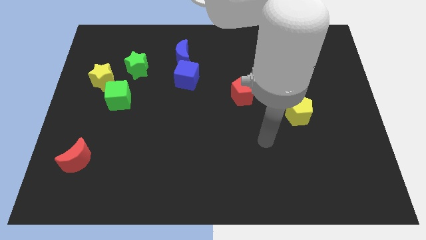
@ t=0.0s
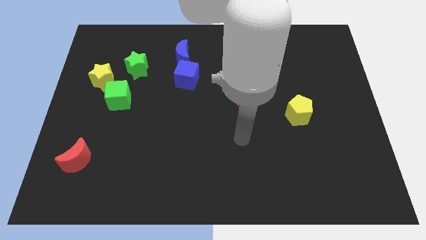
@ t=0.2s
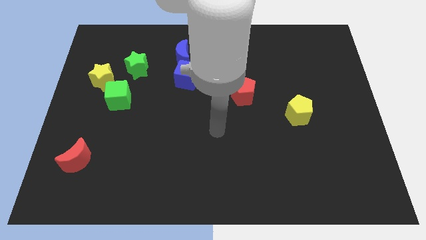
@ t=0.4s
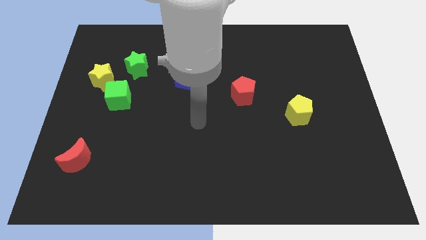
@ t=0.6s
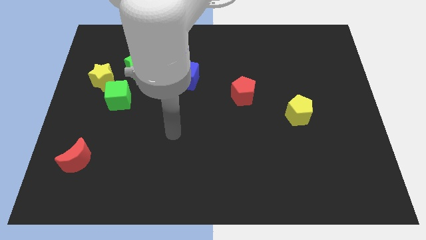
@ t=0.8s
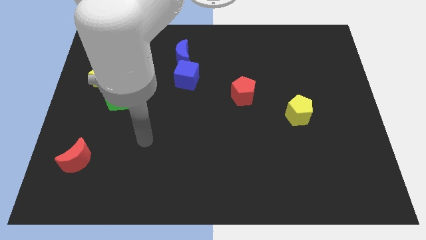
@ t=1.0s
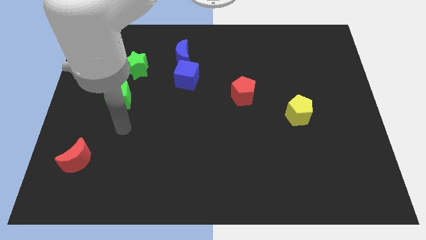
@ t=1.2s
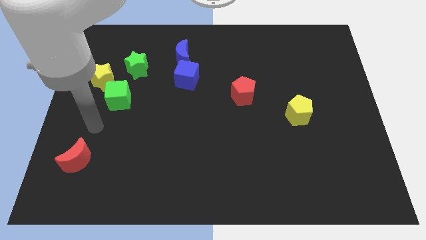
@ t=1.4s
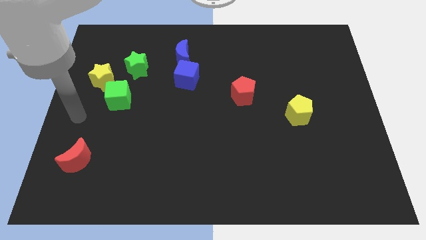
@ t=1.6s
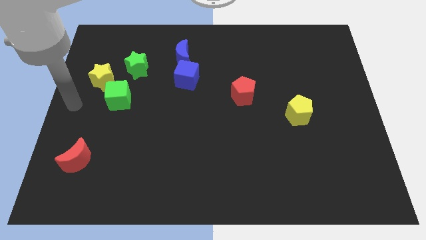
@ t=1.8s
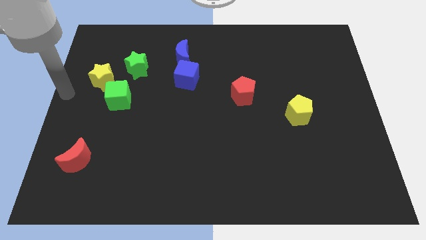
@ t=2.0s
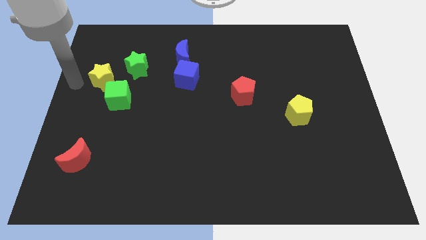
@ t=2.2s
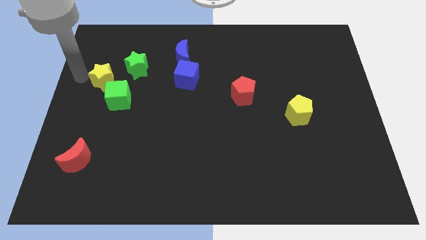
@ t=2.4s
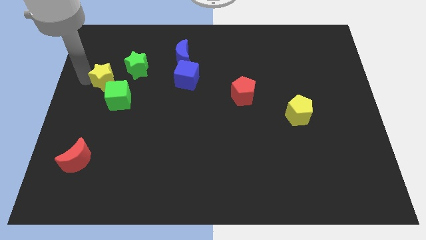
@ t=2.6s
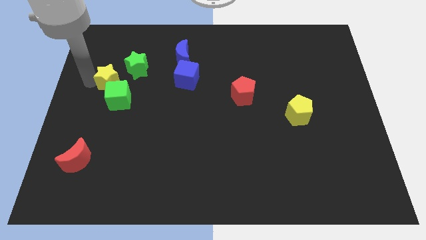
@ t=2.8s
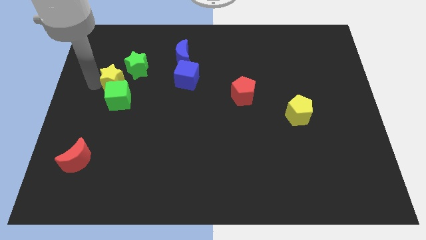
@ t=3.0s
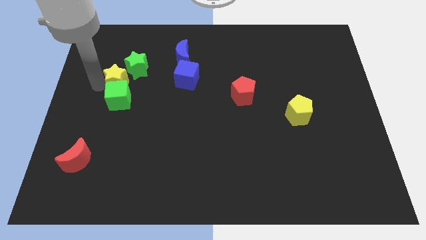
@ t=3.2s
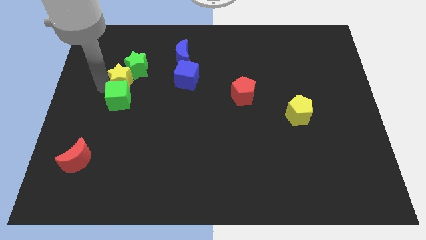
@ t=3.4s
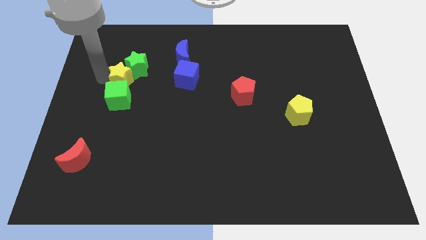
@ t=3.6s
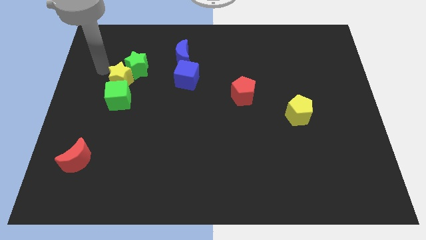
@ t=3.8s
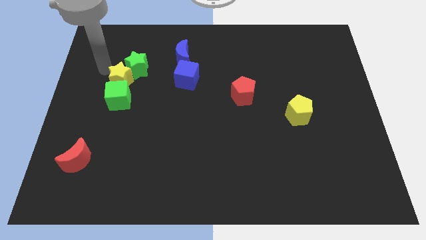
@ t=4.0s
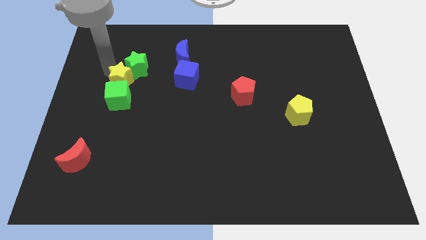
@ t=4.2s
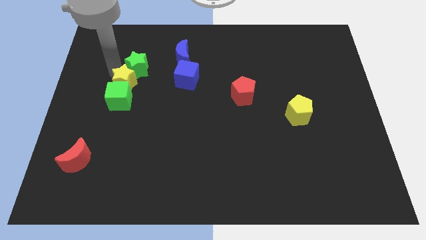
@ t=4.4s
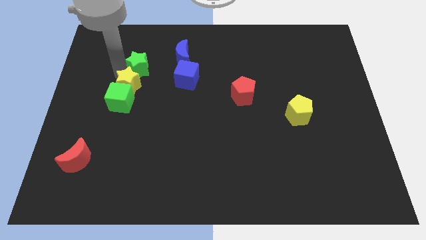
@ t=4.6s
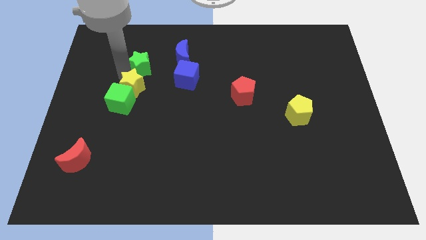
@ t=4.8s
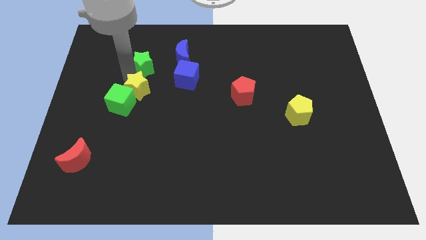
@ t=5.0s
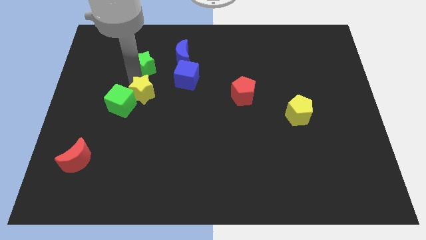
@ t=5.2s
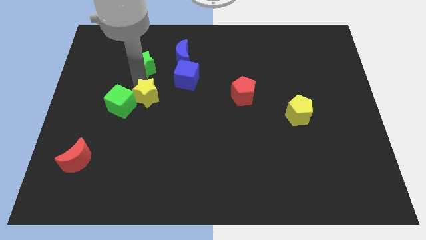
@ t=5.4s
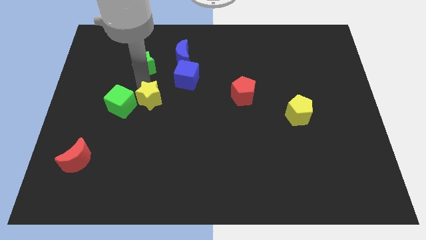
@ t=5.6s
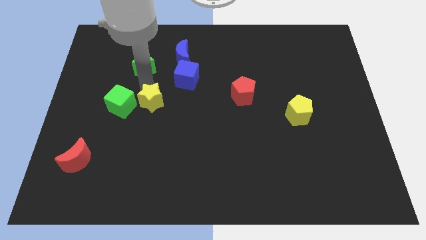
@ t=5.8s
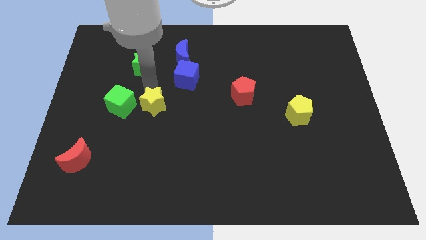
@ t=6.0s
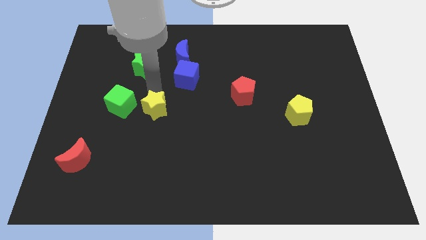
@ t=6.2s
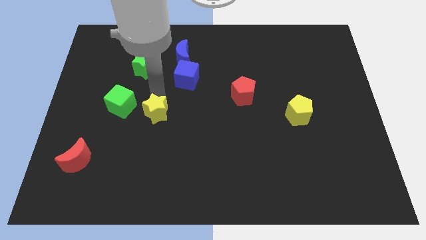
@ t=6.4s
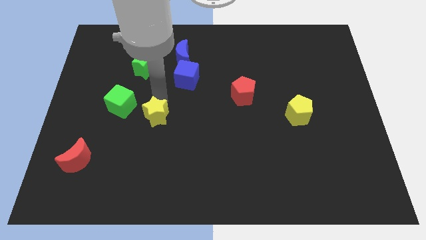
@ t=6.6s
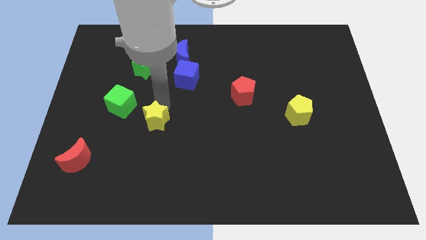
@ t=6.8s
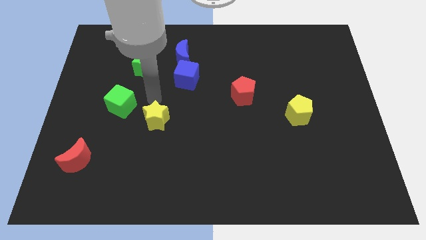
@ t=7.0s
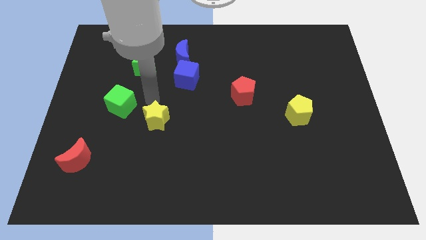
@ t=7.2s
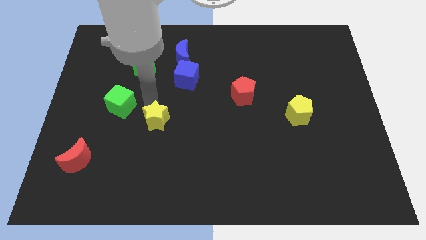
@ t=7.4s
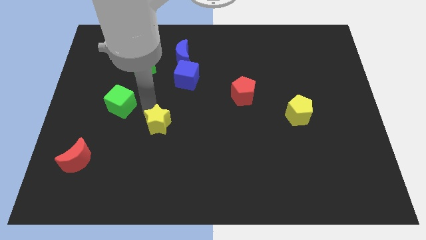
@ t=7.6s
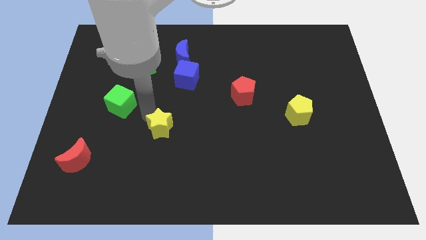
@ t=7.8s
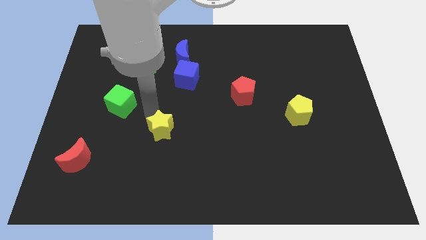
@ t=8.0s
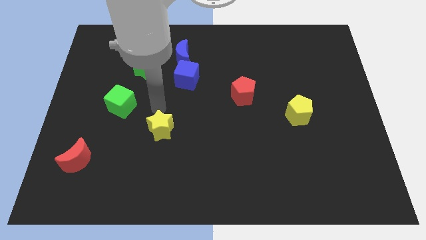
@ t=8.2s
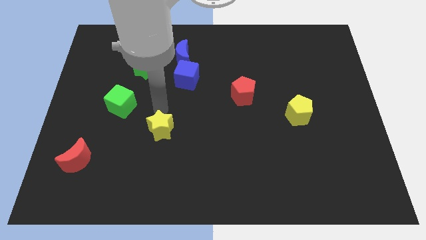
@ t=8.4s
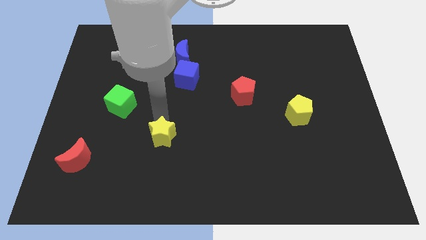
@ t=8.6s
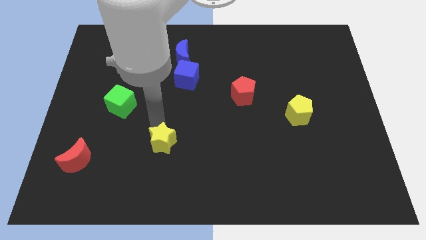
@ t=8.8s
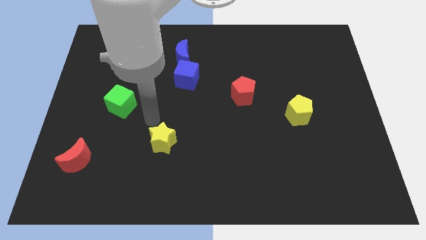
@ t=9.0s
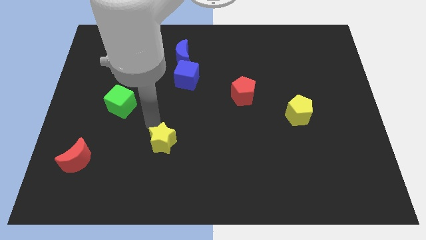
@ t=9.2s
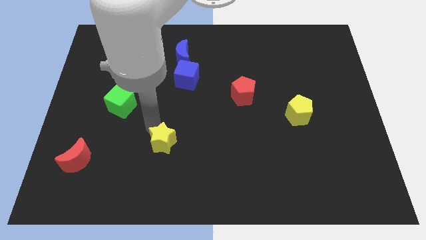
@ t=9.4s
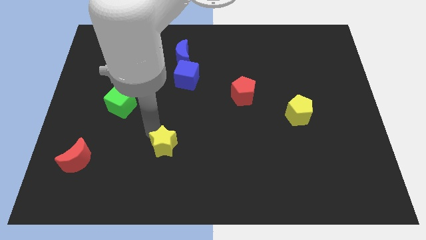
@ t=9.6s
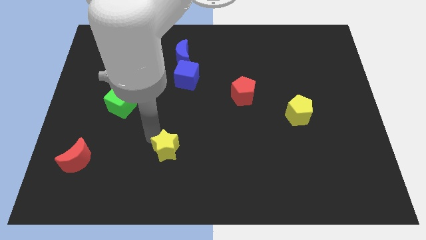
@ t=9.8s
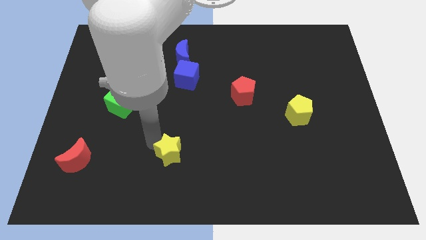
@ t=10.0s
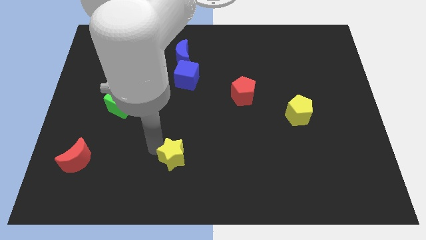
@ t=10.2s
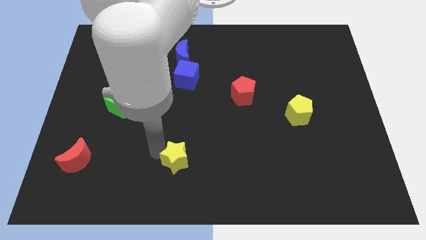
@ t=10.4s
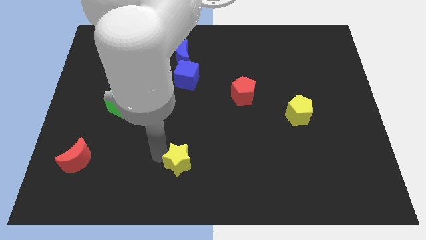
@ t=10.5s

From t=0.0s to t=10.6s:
put the yellow star to the bottom side

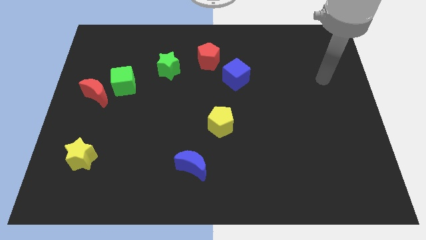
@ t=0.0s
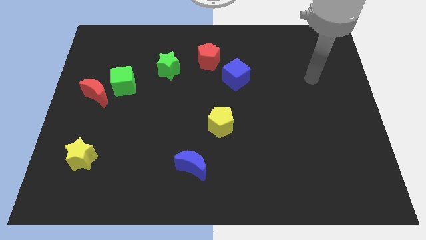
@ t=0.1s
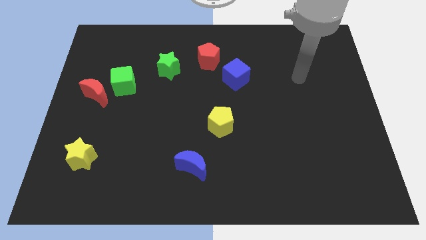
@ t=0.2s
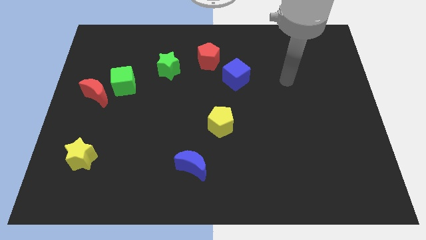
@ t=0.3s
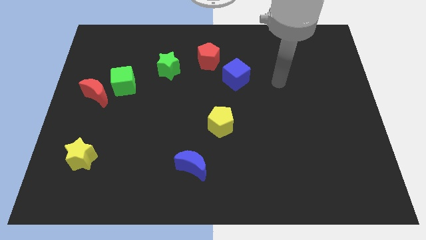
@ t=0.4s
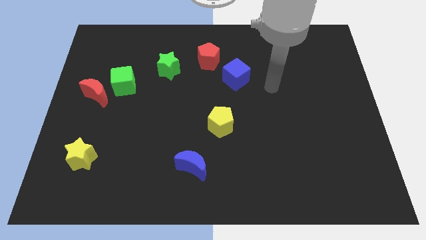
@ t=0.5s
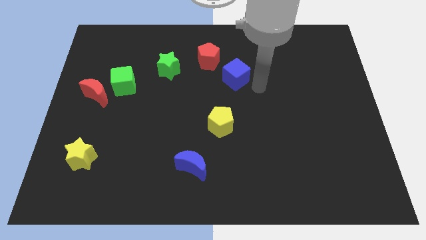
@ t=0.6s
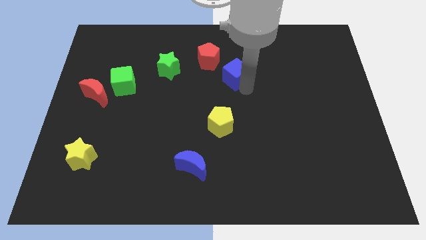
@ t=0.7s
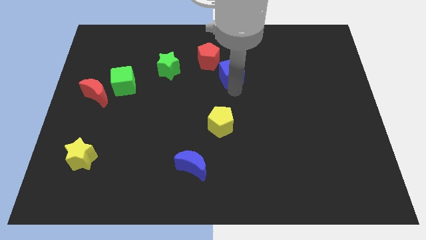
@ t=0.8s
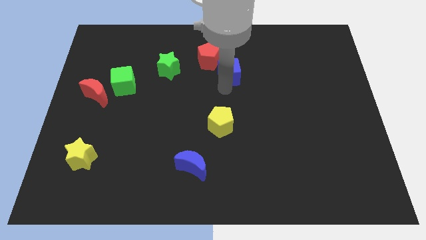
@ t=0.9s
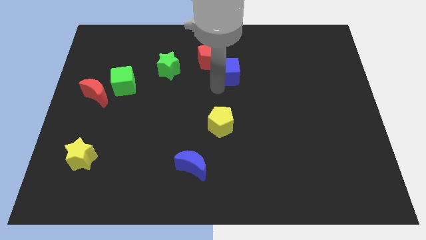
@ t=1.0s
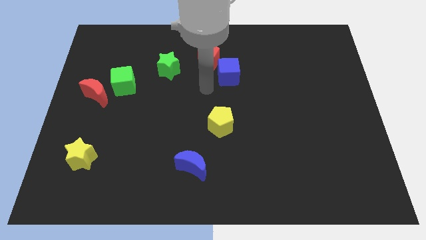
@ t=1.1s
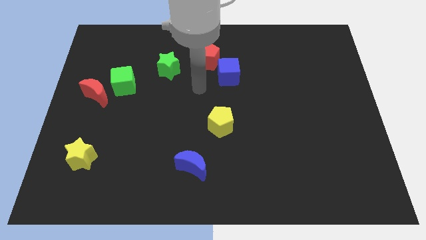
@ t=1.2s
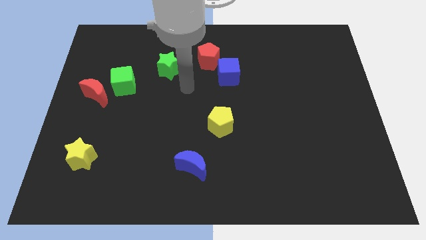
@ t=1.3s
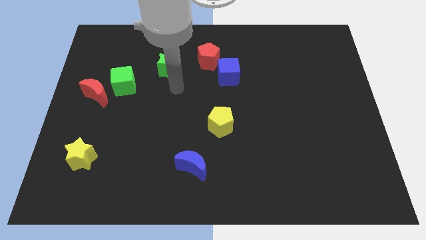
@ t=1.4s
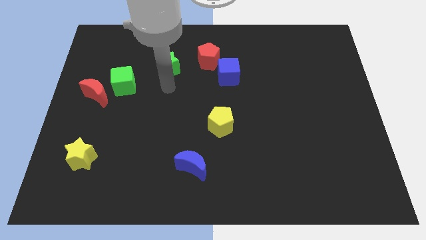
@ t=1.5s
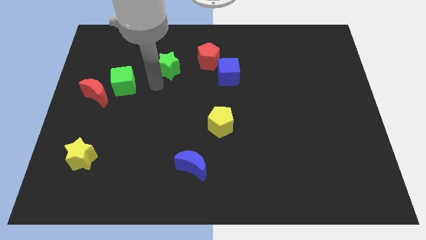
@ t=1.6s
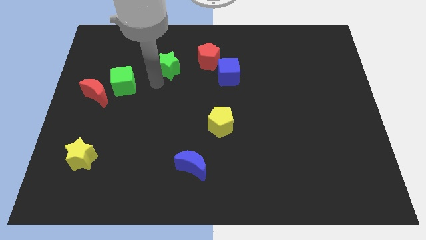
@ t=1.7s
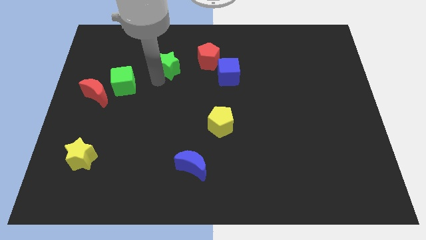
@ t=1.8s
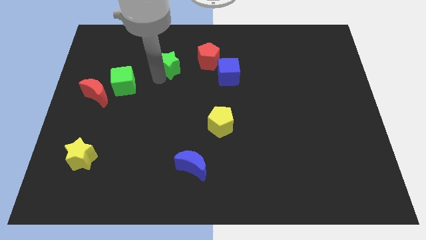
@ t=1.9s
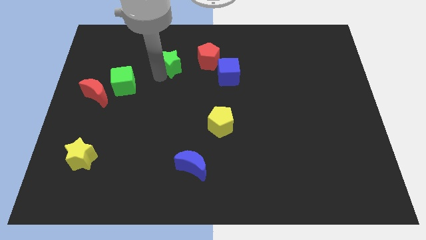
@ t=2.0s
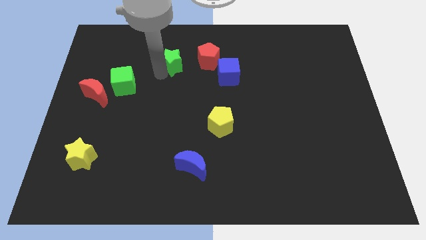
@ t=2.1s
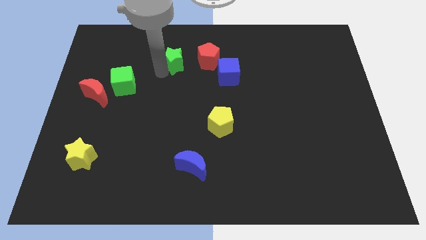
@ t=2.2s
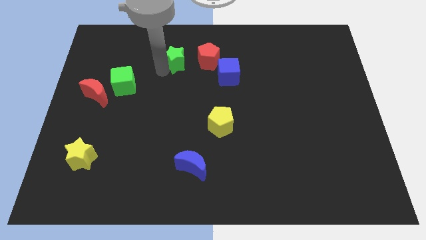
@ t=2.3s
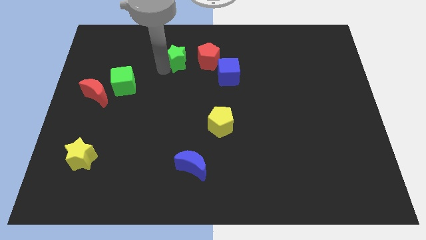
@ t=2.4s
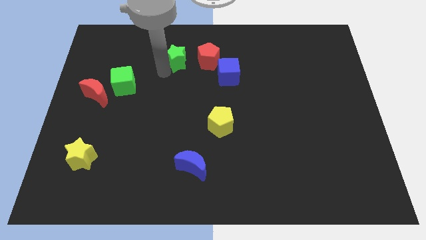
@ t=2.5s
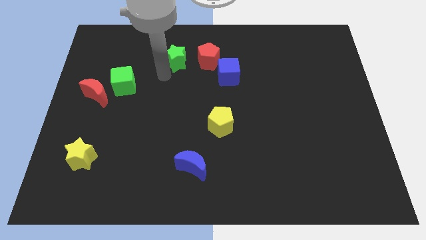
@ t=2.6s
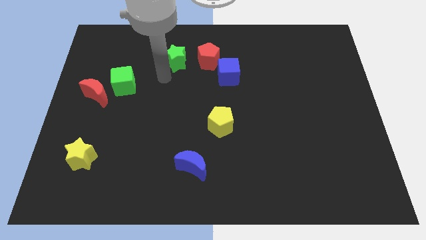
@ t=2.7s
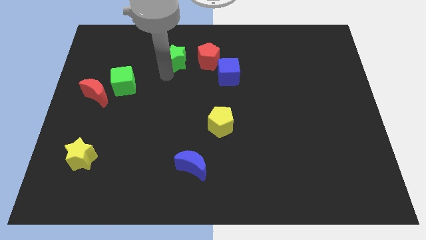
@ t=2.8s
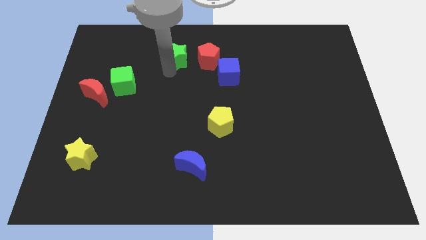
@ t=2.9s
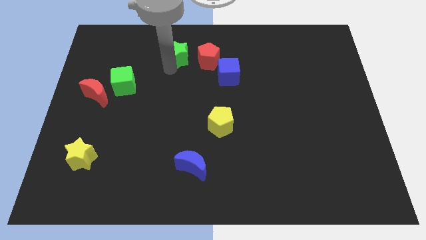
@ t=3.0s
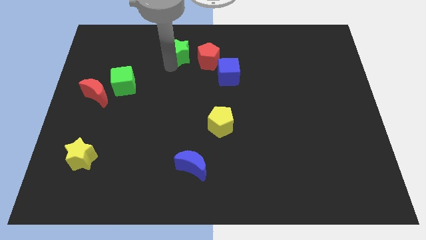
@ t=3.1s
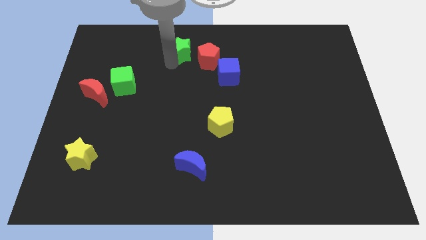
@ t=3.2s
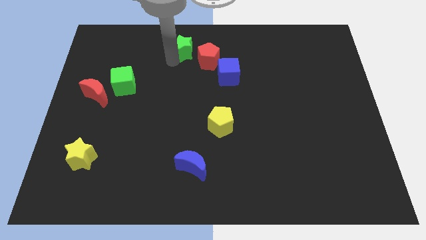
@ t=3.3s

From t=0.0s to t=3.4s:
slide the green star to the top side
